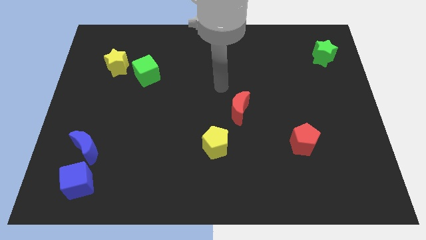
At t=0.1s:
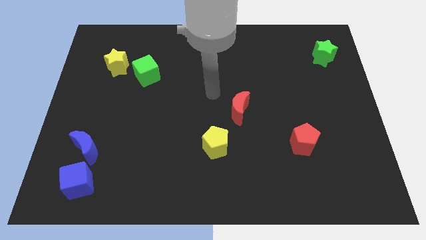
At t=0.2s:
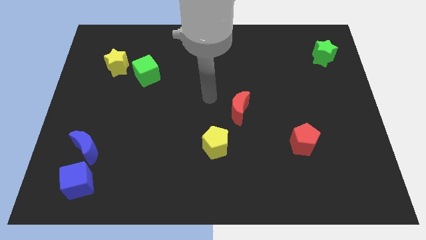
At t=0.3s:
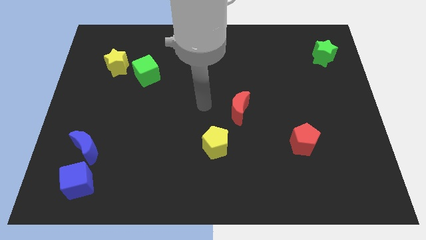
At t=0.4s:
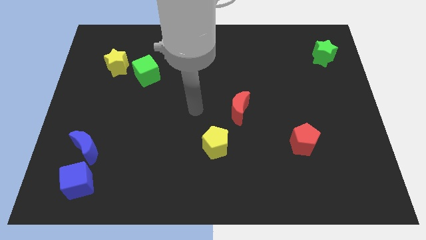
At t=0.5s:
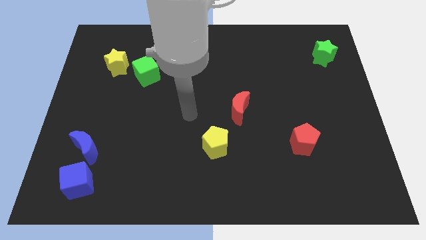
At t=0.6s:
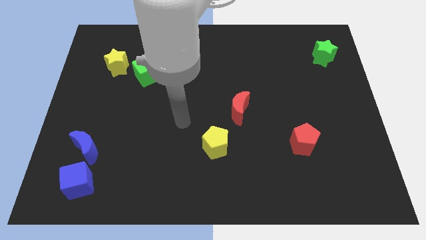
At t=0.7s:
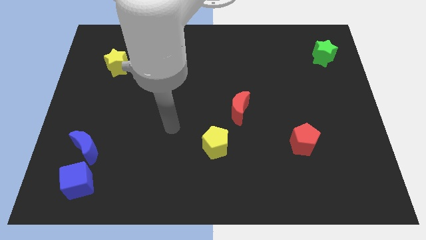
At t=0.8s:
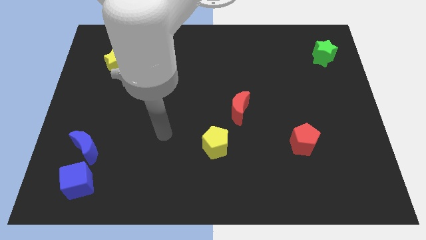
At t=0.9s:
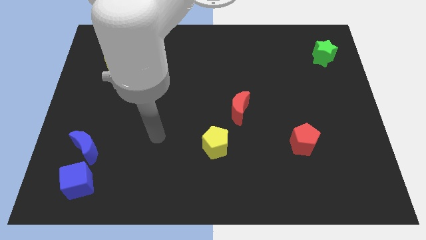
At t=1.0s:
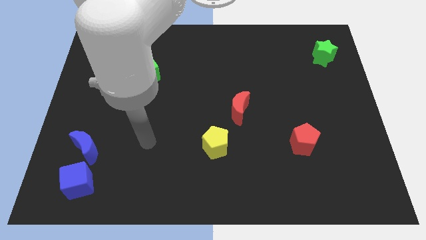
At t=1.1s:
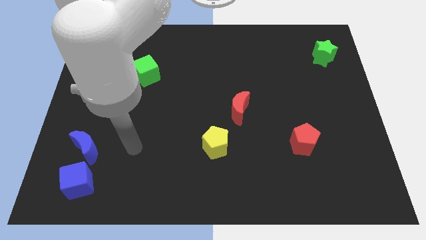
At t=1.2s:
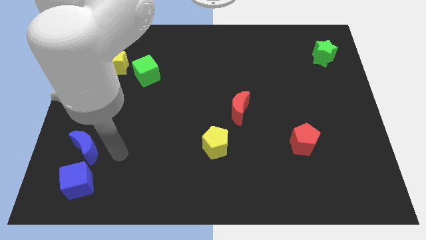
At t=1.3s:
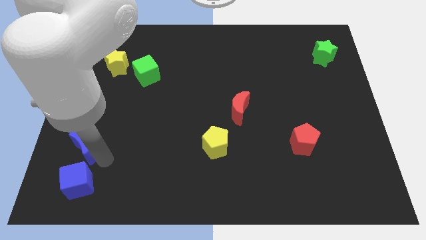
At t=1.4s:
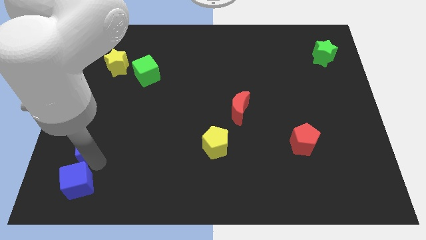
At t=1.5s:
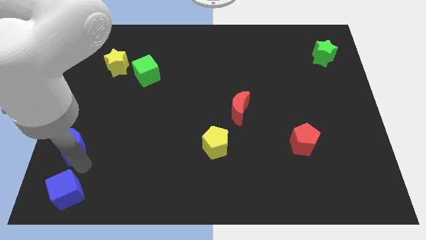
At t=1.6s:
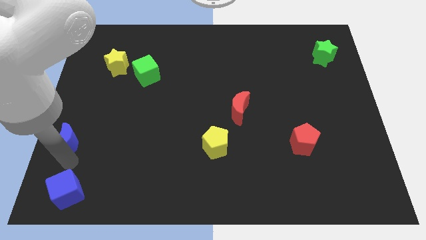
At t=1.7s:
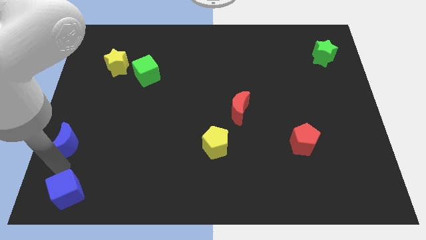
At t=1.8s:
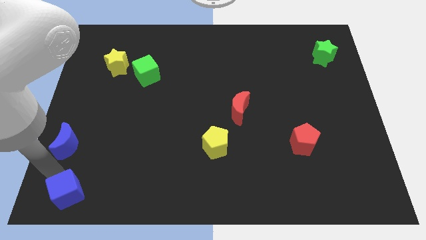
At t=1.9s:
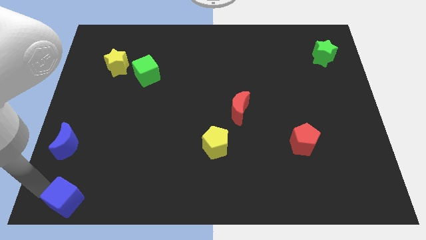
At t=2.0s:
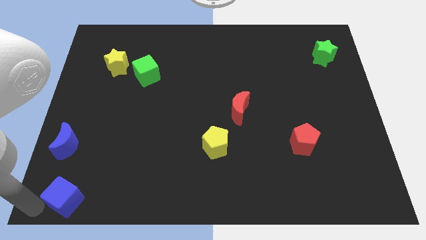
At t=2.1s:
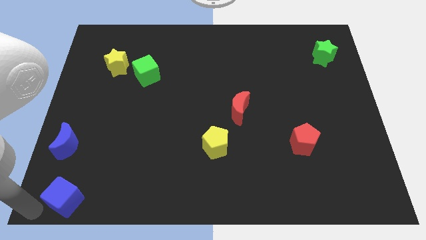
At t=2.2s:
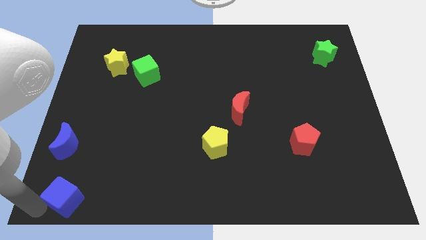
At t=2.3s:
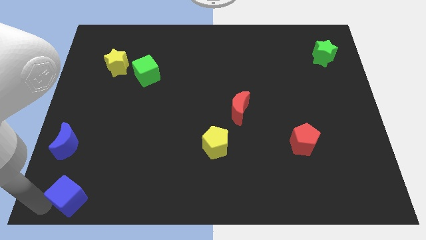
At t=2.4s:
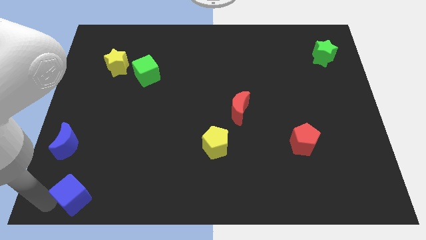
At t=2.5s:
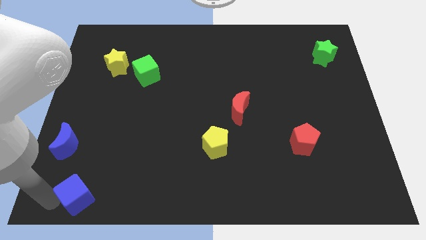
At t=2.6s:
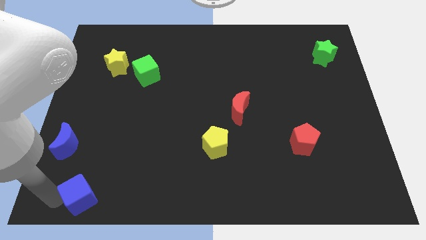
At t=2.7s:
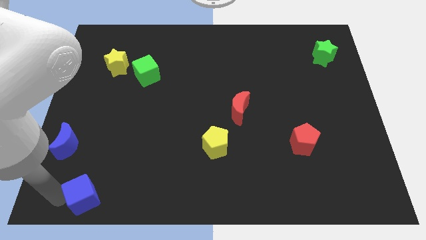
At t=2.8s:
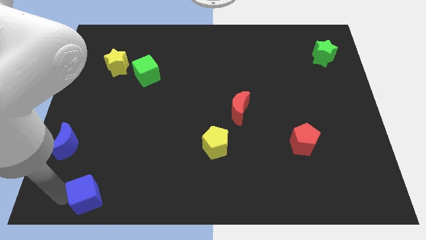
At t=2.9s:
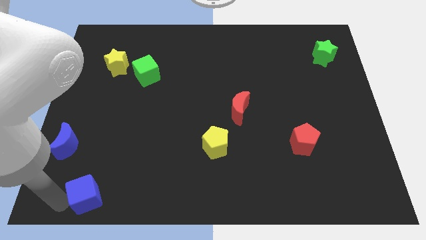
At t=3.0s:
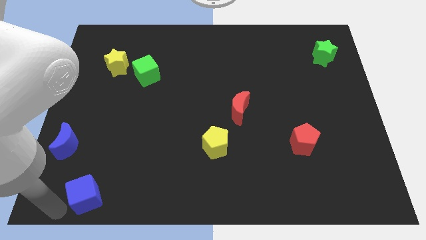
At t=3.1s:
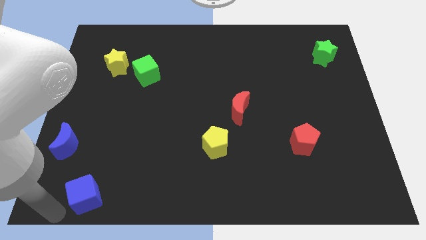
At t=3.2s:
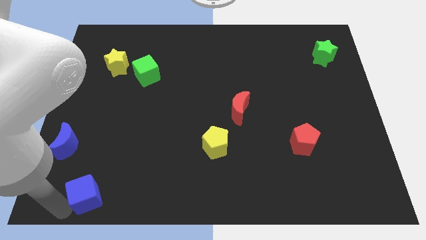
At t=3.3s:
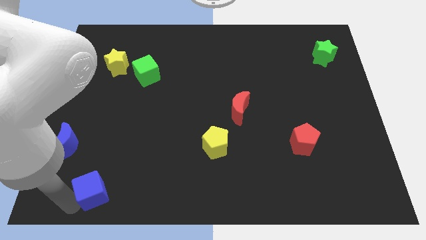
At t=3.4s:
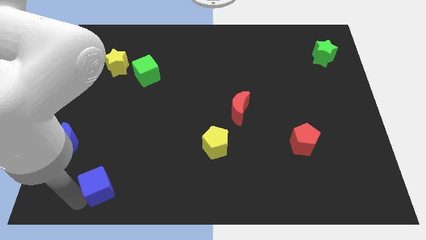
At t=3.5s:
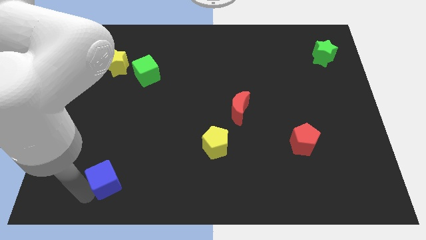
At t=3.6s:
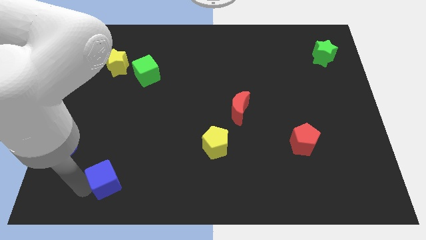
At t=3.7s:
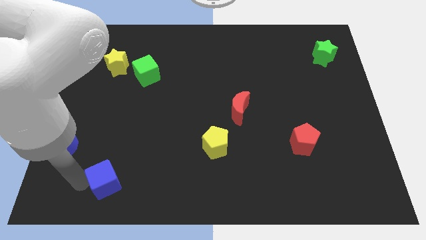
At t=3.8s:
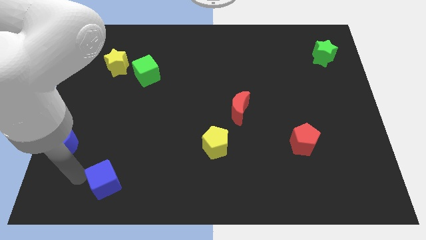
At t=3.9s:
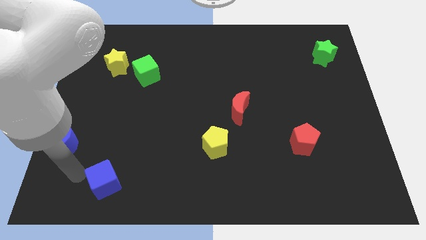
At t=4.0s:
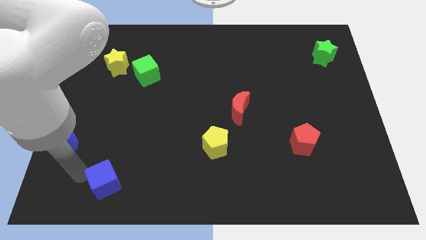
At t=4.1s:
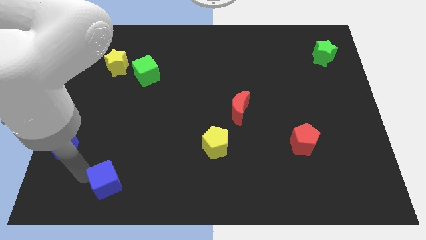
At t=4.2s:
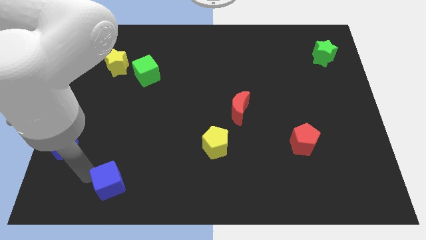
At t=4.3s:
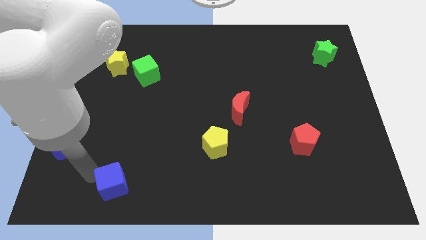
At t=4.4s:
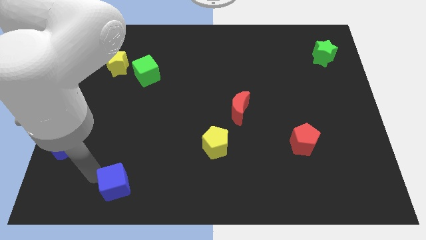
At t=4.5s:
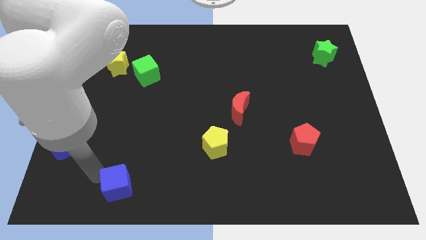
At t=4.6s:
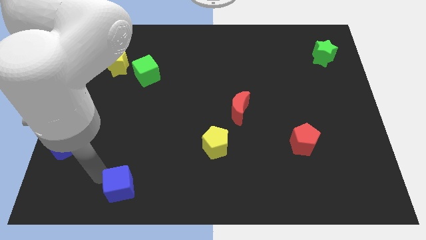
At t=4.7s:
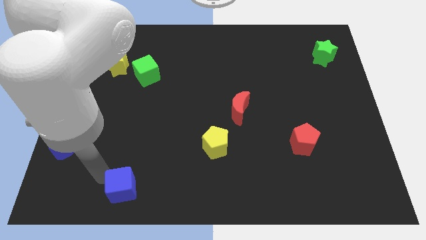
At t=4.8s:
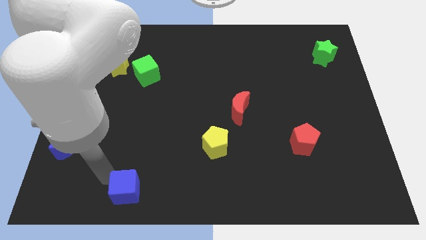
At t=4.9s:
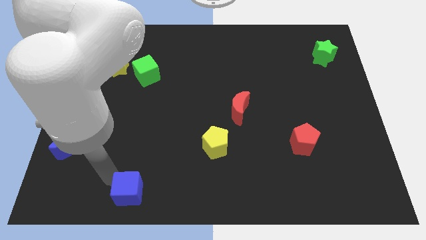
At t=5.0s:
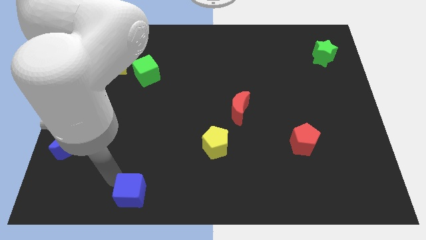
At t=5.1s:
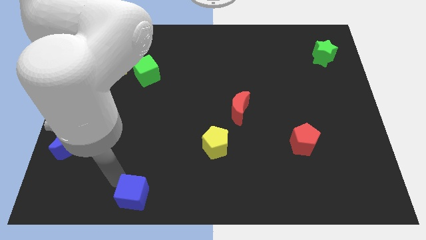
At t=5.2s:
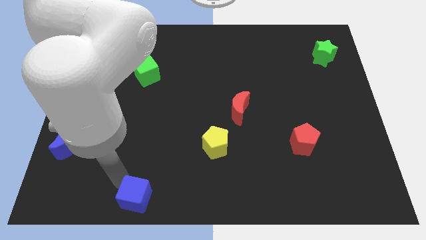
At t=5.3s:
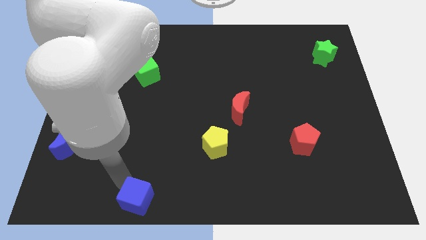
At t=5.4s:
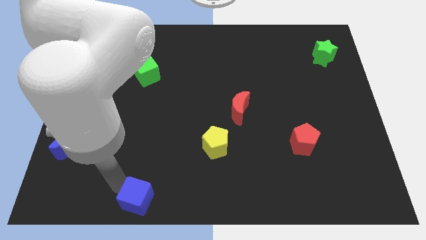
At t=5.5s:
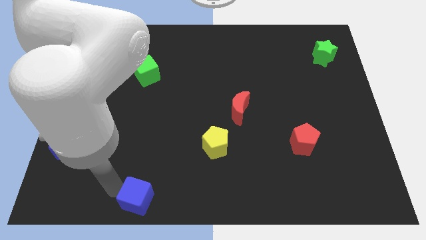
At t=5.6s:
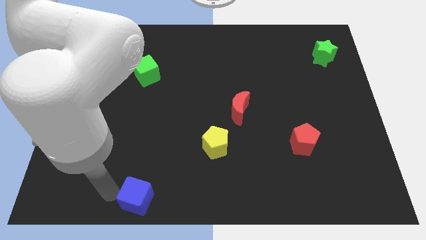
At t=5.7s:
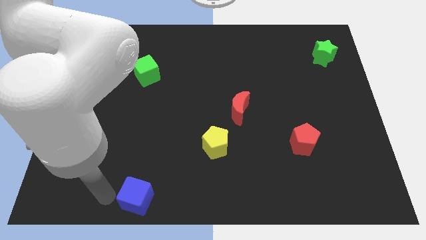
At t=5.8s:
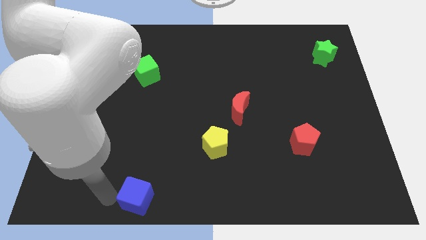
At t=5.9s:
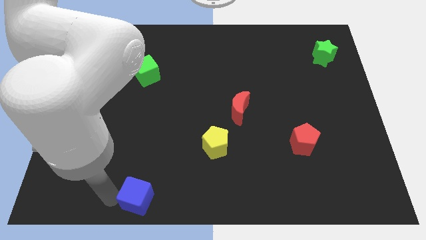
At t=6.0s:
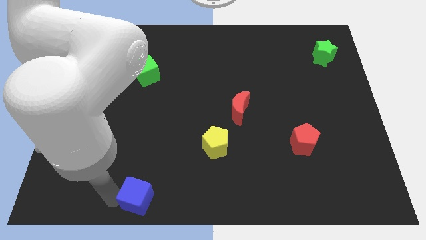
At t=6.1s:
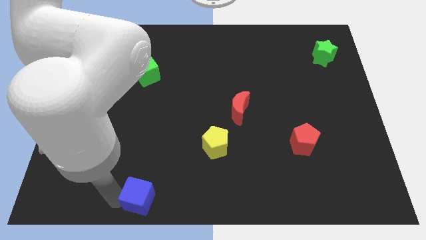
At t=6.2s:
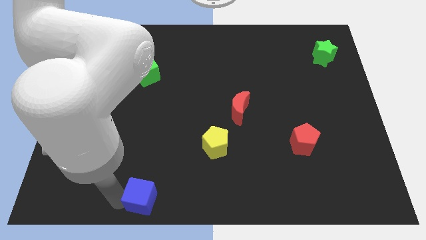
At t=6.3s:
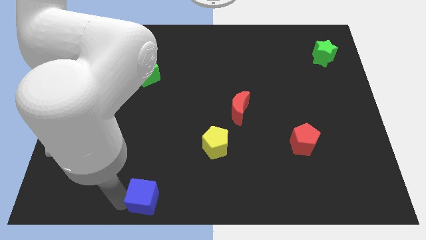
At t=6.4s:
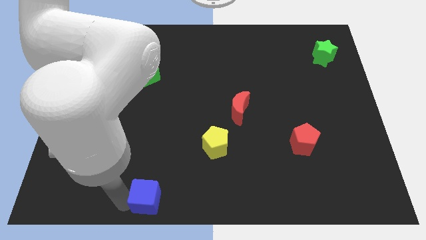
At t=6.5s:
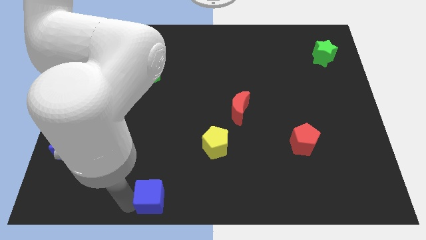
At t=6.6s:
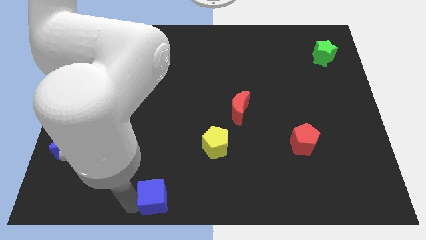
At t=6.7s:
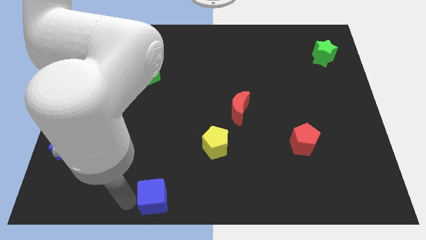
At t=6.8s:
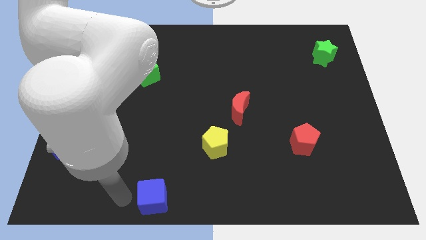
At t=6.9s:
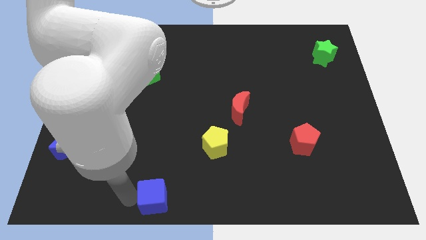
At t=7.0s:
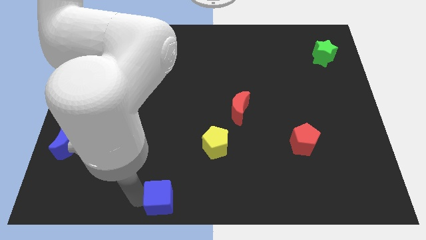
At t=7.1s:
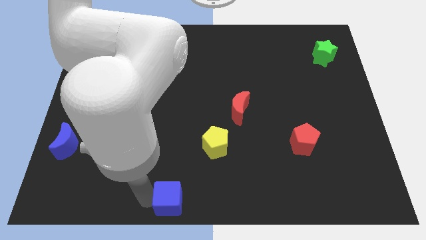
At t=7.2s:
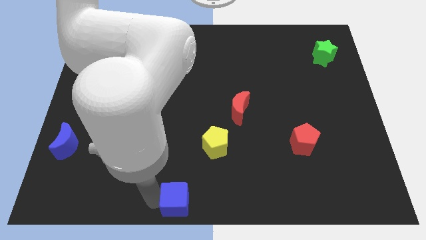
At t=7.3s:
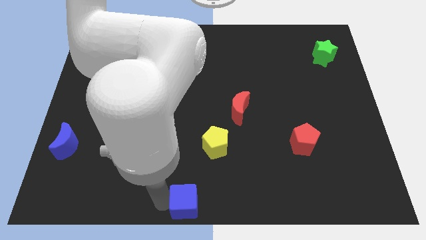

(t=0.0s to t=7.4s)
move the blue cube to the right

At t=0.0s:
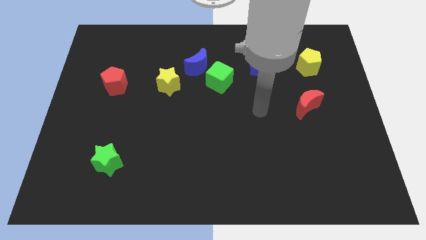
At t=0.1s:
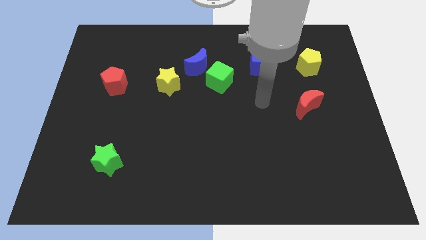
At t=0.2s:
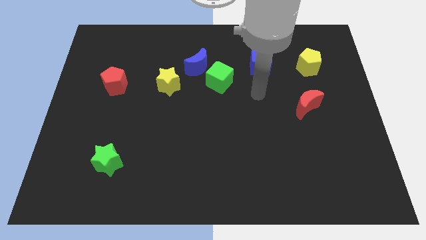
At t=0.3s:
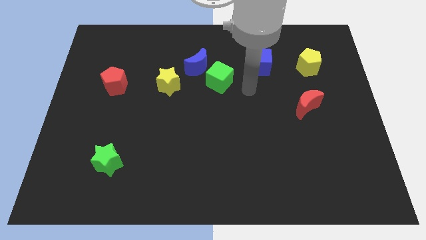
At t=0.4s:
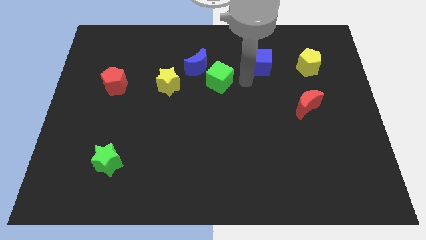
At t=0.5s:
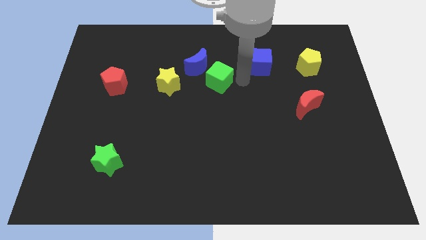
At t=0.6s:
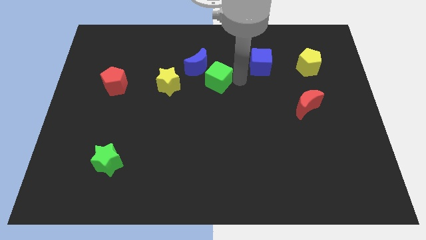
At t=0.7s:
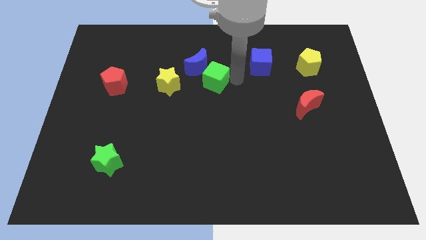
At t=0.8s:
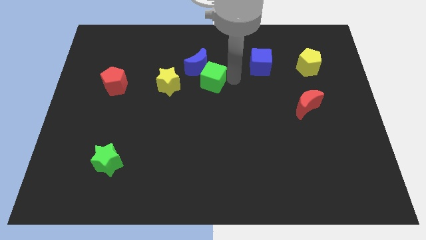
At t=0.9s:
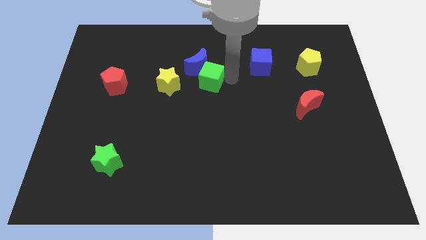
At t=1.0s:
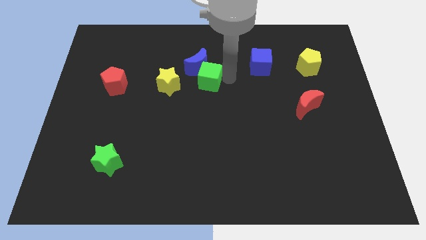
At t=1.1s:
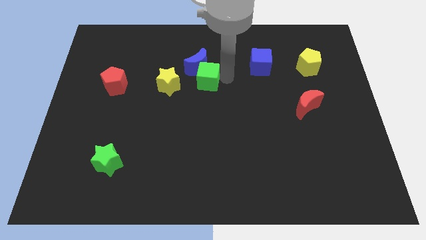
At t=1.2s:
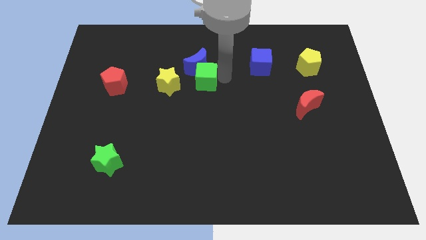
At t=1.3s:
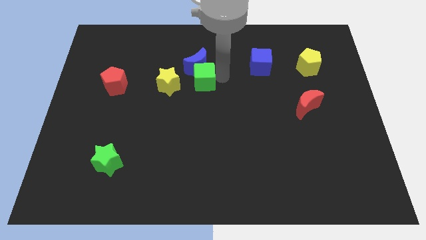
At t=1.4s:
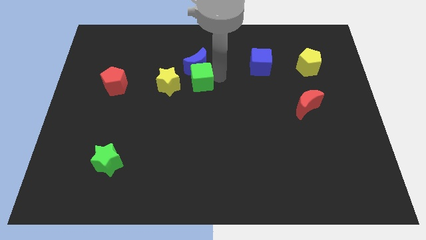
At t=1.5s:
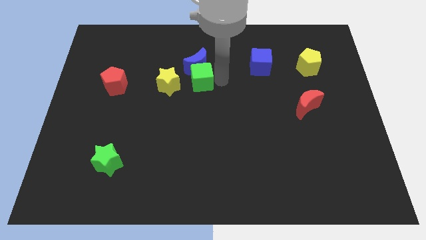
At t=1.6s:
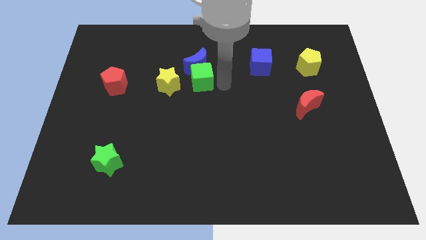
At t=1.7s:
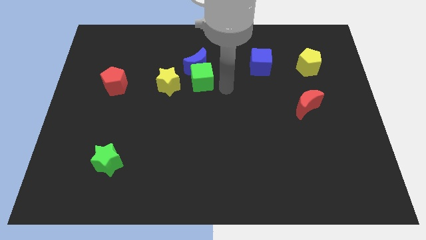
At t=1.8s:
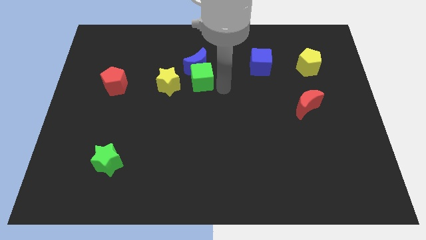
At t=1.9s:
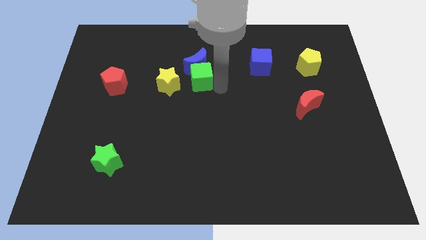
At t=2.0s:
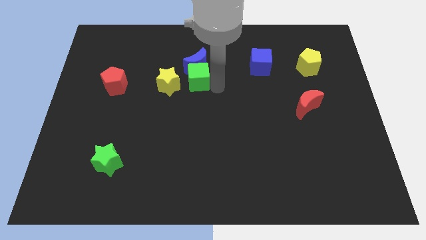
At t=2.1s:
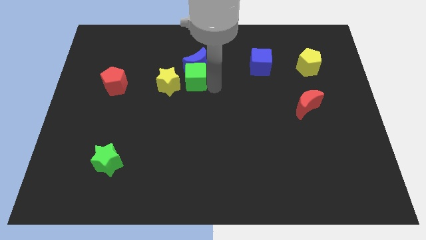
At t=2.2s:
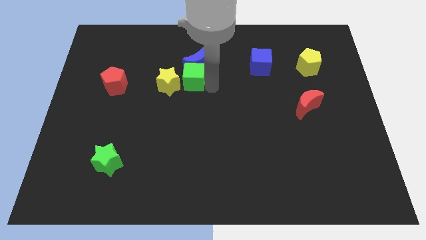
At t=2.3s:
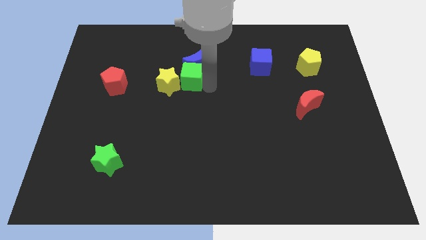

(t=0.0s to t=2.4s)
slightly push the green cube left
